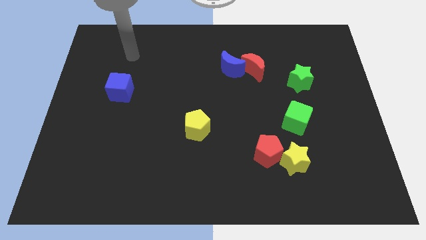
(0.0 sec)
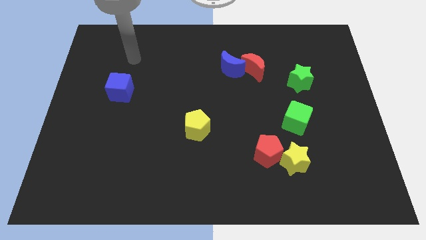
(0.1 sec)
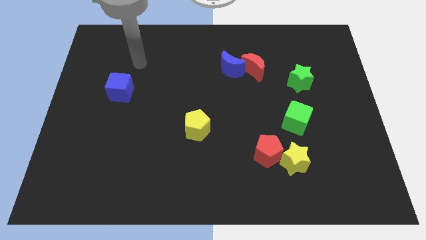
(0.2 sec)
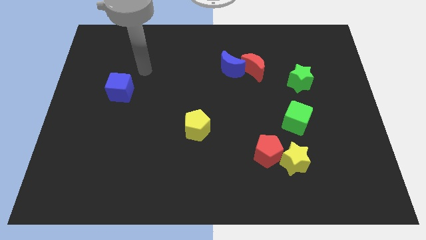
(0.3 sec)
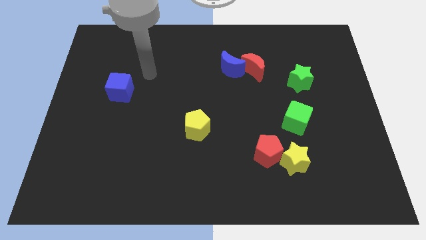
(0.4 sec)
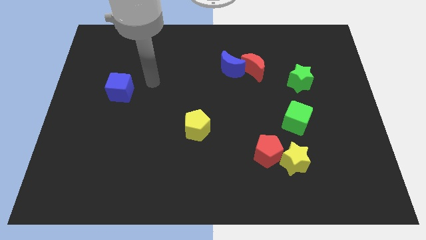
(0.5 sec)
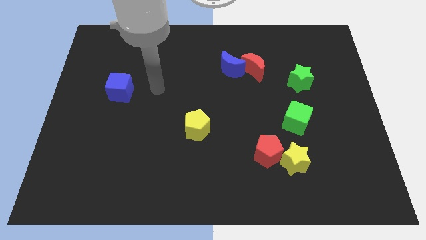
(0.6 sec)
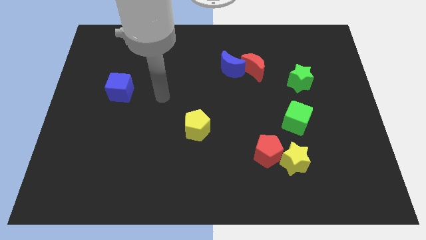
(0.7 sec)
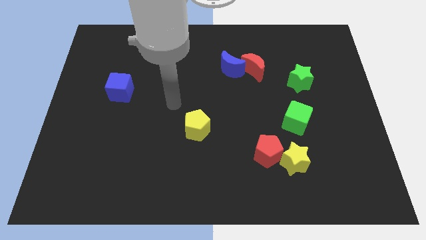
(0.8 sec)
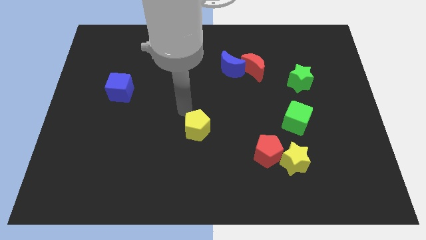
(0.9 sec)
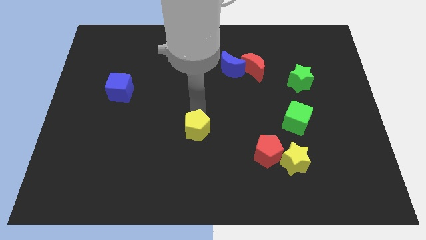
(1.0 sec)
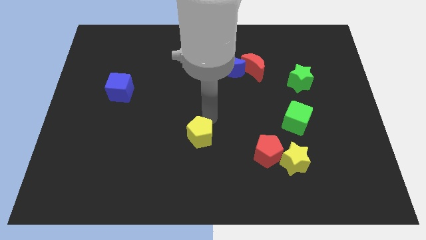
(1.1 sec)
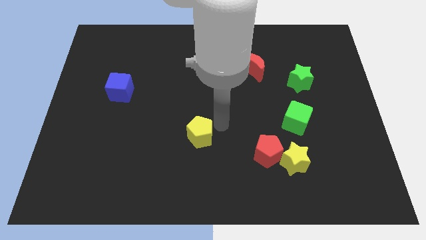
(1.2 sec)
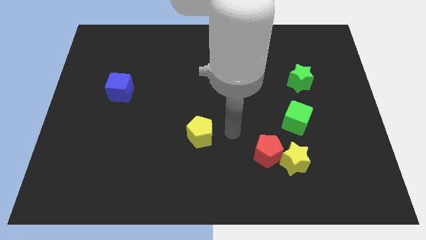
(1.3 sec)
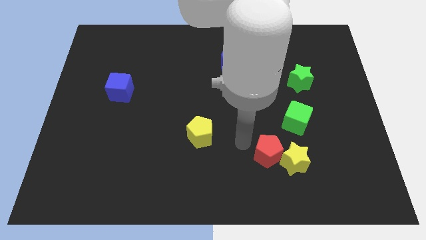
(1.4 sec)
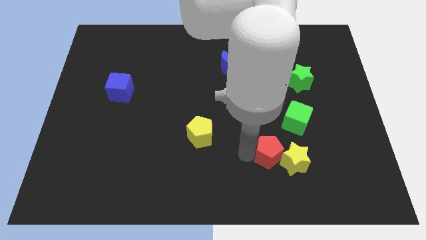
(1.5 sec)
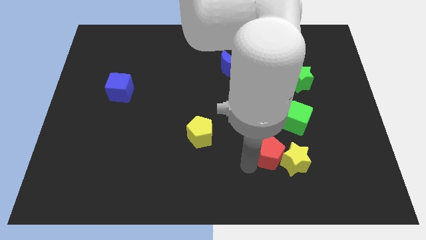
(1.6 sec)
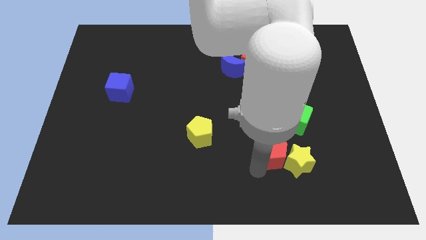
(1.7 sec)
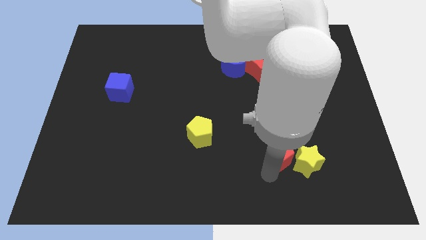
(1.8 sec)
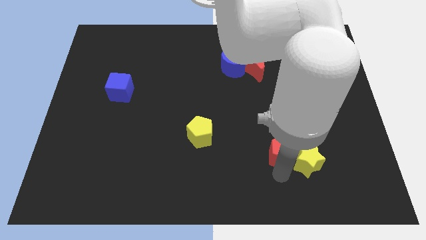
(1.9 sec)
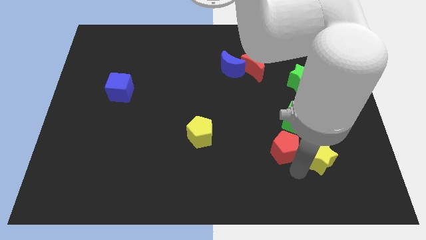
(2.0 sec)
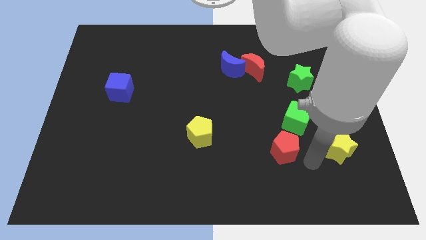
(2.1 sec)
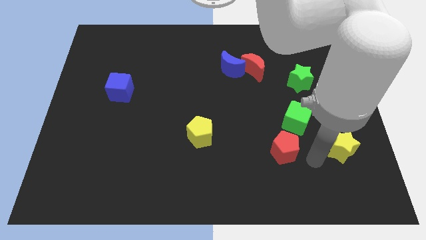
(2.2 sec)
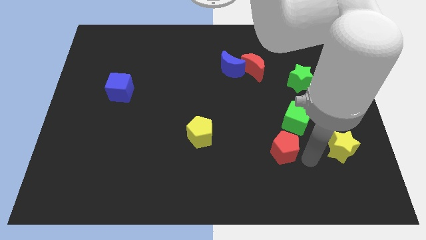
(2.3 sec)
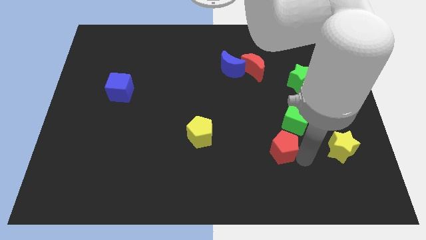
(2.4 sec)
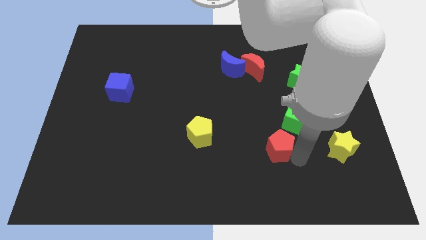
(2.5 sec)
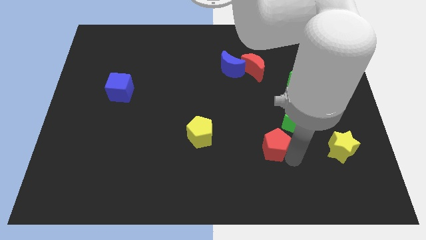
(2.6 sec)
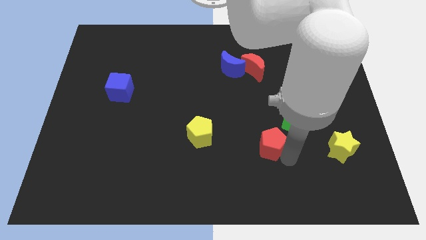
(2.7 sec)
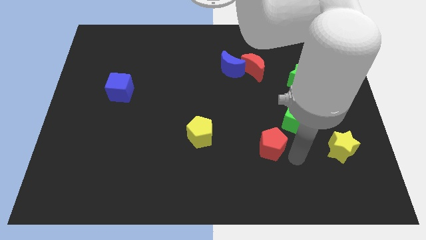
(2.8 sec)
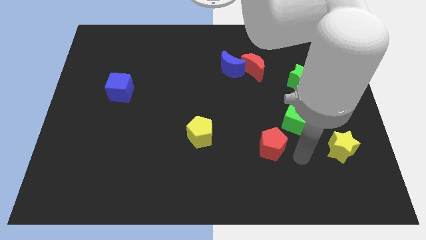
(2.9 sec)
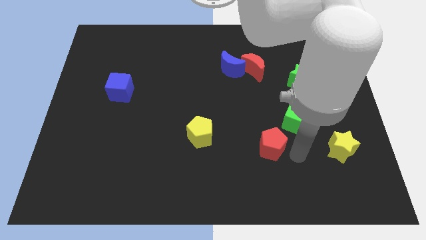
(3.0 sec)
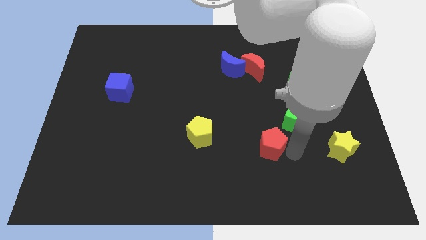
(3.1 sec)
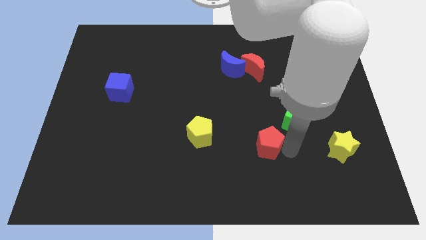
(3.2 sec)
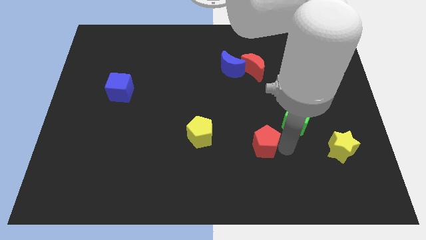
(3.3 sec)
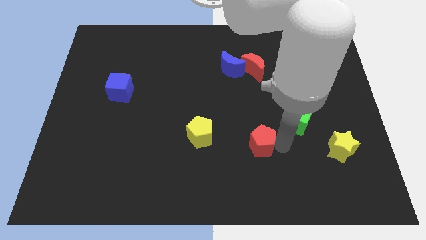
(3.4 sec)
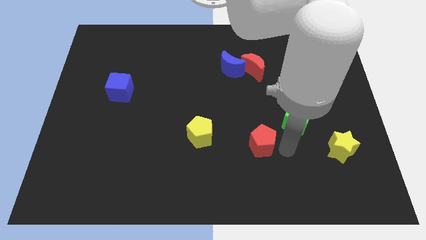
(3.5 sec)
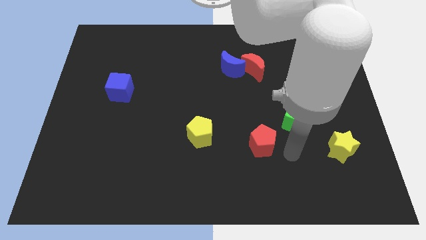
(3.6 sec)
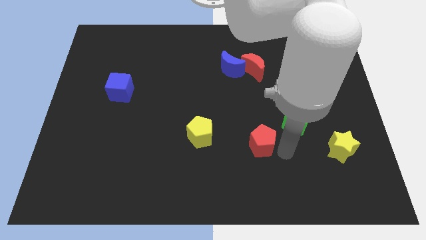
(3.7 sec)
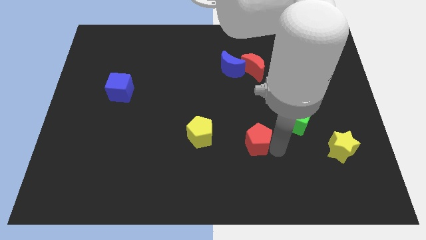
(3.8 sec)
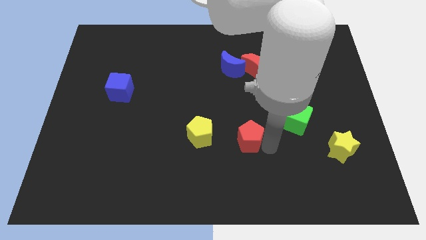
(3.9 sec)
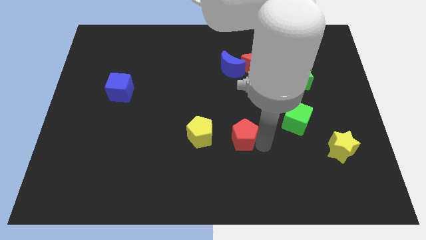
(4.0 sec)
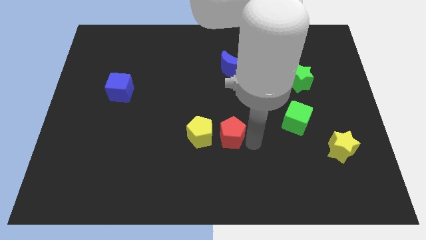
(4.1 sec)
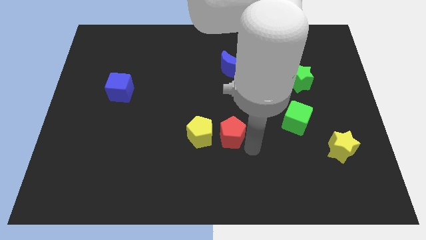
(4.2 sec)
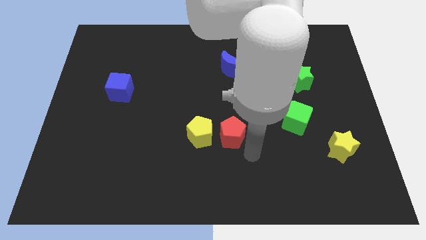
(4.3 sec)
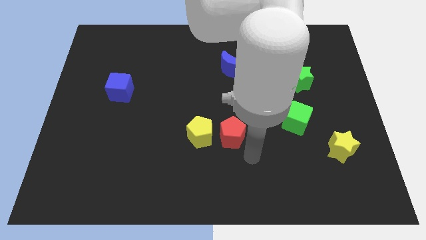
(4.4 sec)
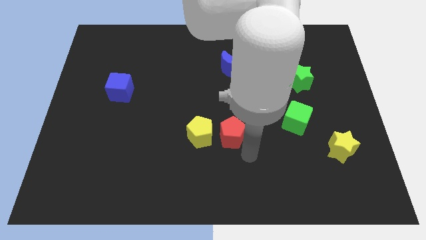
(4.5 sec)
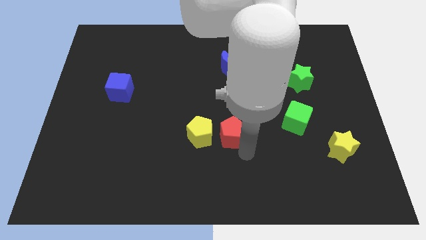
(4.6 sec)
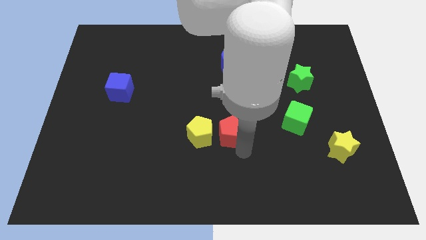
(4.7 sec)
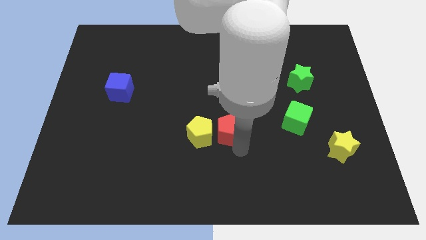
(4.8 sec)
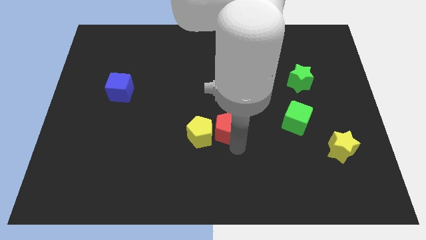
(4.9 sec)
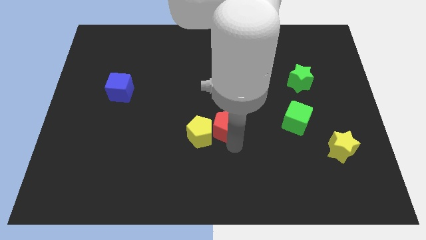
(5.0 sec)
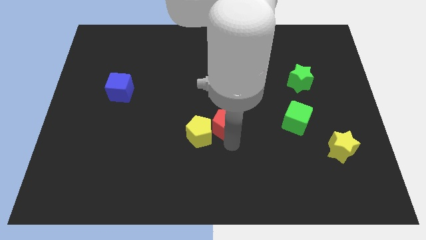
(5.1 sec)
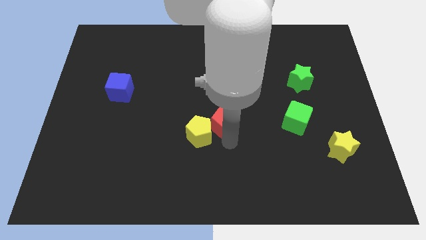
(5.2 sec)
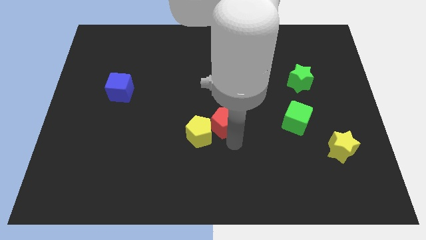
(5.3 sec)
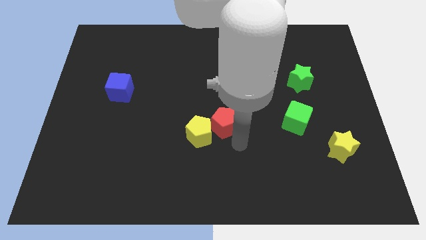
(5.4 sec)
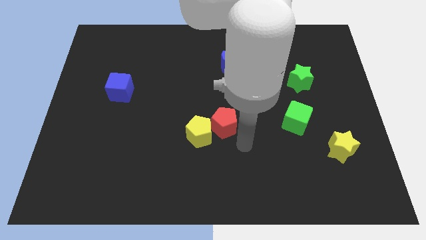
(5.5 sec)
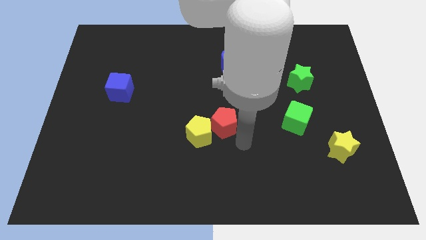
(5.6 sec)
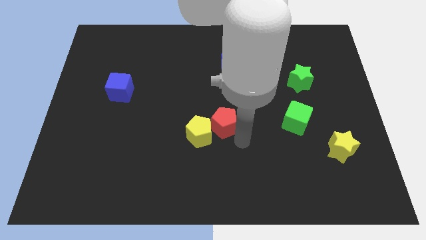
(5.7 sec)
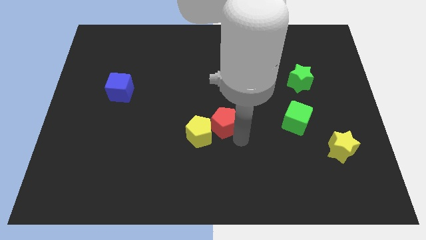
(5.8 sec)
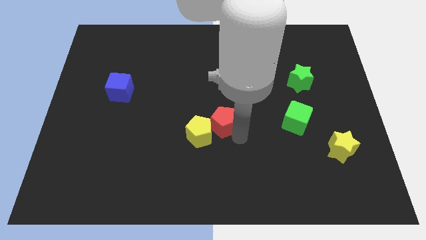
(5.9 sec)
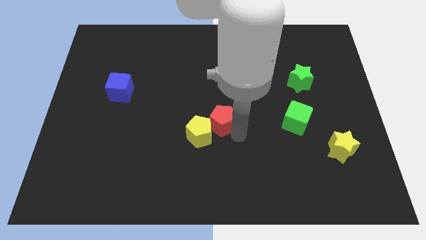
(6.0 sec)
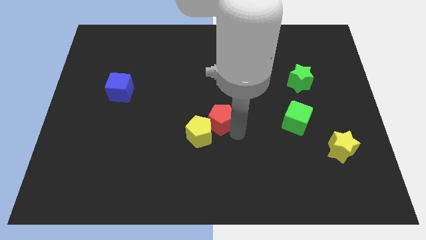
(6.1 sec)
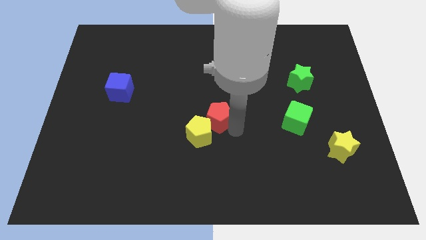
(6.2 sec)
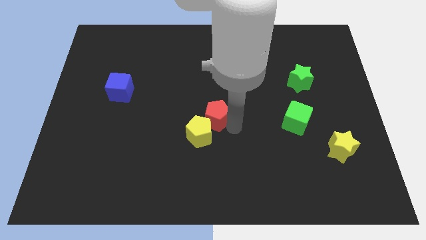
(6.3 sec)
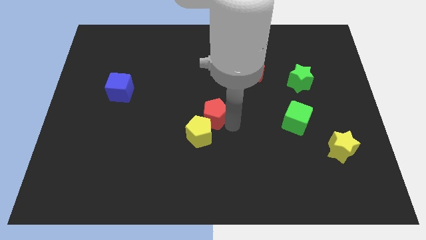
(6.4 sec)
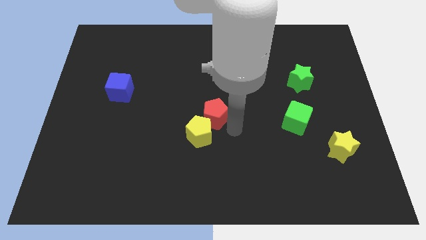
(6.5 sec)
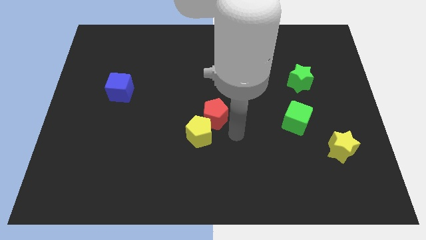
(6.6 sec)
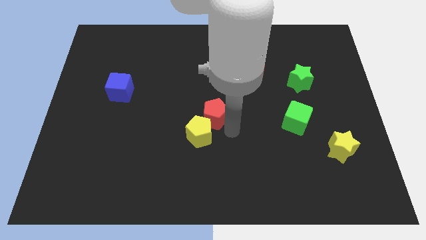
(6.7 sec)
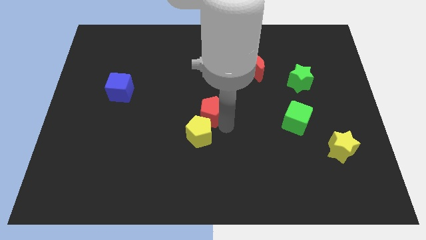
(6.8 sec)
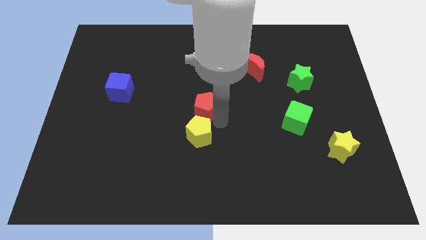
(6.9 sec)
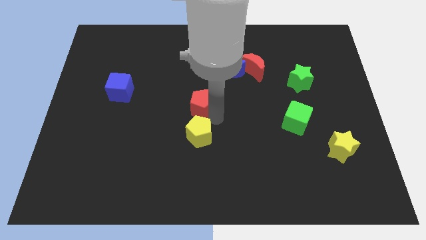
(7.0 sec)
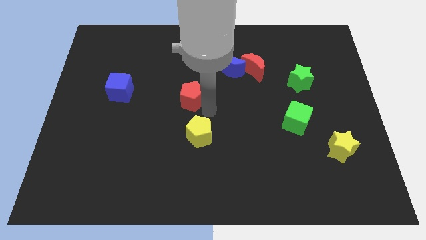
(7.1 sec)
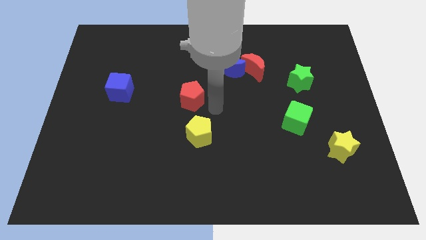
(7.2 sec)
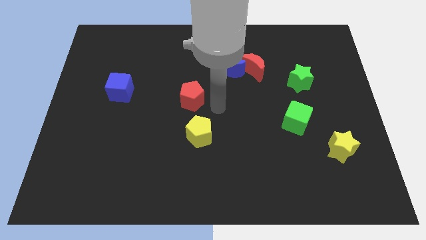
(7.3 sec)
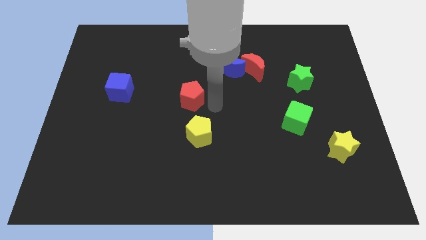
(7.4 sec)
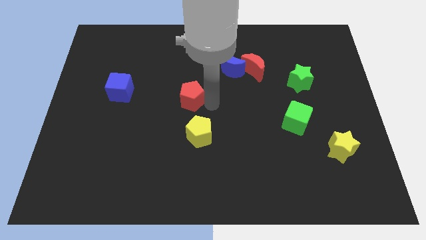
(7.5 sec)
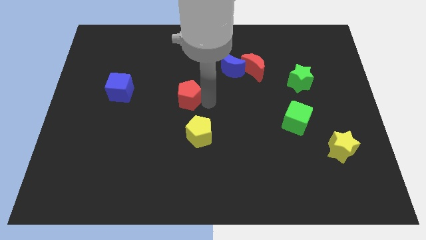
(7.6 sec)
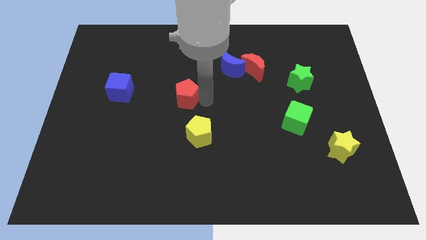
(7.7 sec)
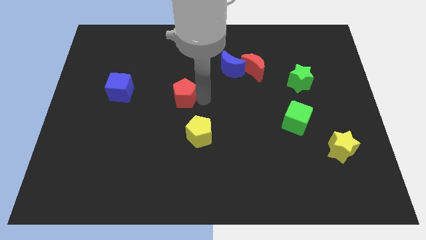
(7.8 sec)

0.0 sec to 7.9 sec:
push the red pentagon just right of the blue cube
